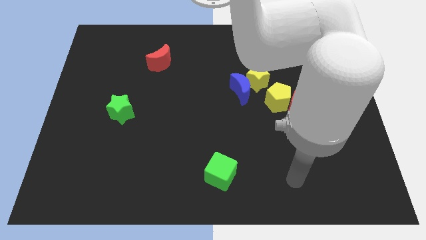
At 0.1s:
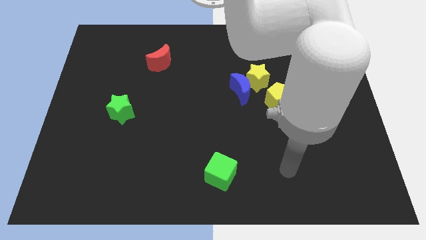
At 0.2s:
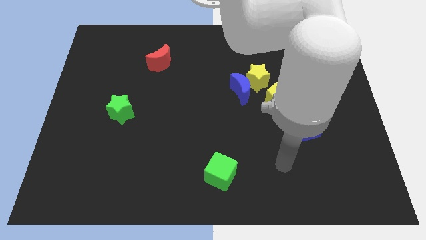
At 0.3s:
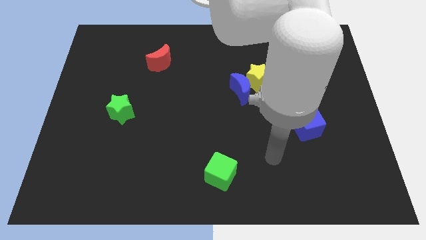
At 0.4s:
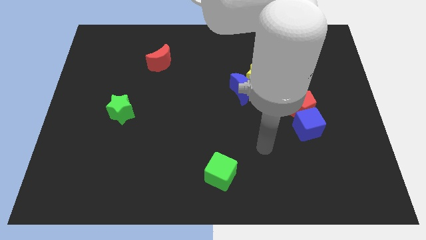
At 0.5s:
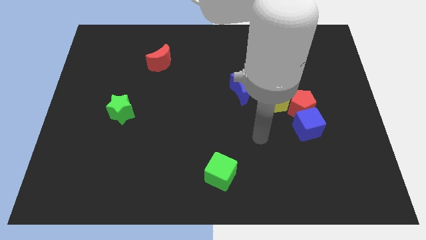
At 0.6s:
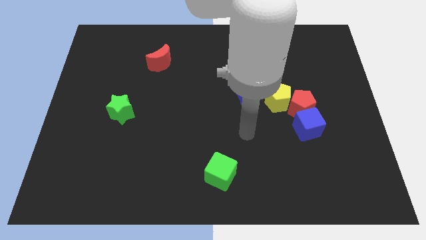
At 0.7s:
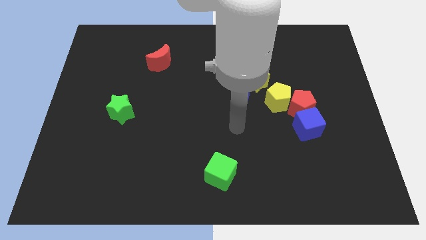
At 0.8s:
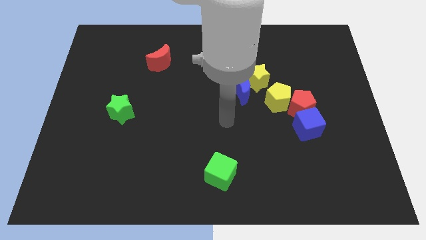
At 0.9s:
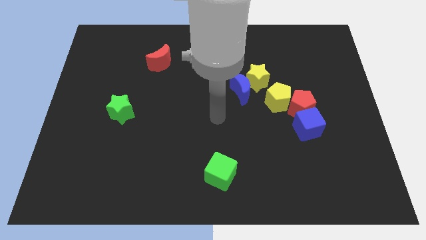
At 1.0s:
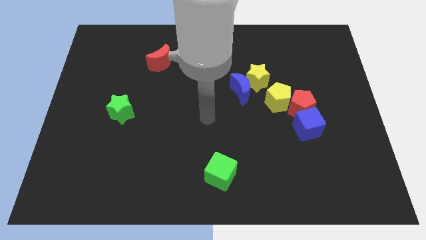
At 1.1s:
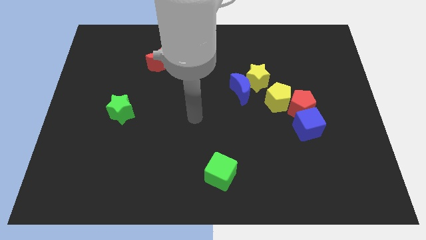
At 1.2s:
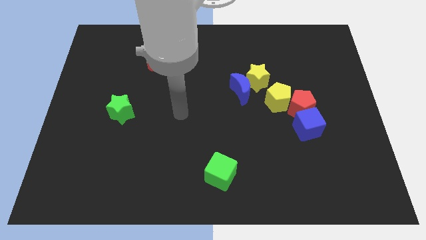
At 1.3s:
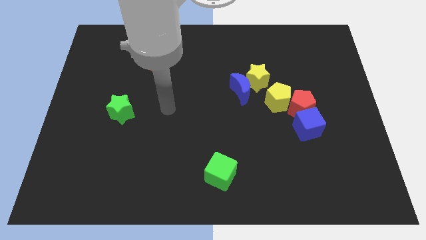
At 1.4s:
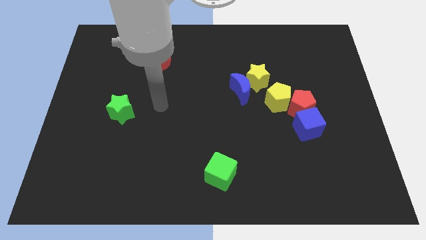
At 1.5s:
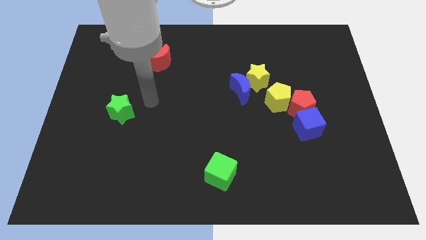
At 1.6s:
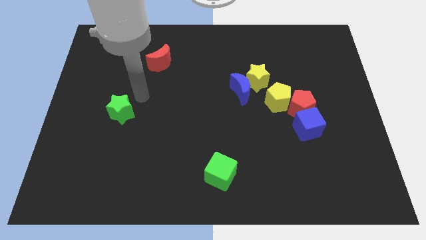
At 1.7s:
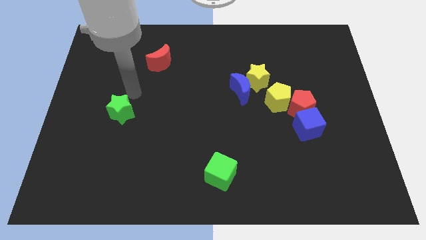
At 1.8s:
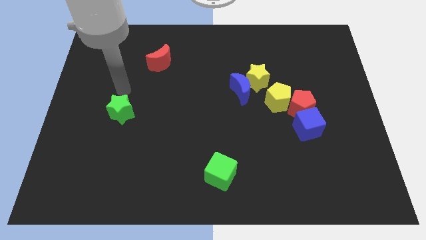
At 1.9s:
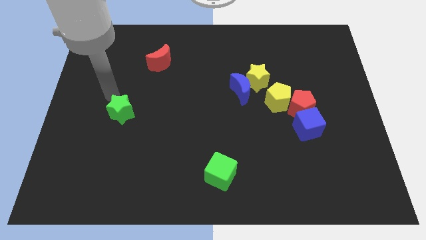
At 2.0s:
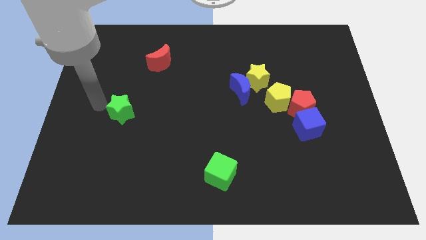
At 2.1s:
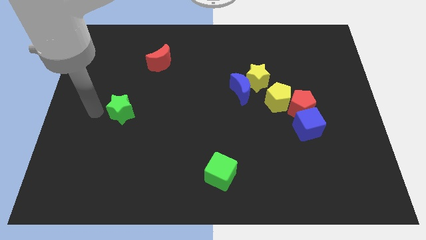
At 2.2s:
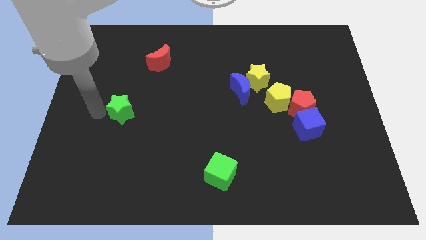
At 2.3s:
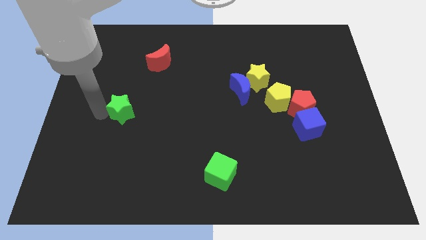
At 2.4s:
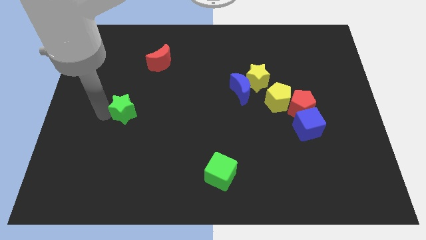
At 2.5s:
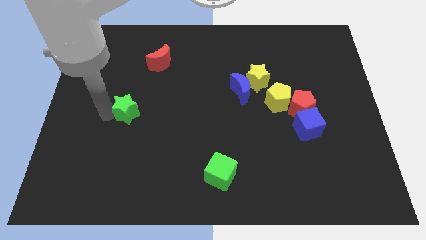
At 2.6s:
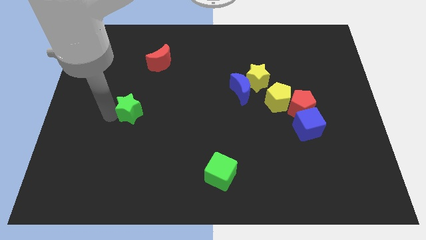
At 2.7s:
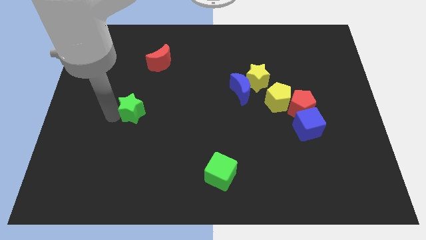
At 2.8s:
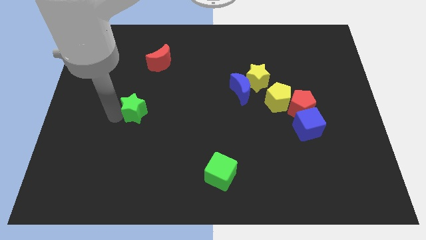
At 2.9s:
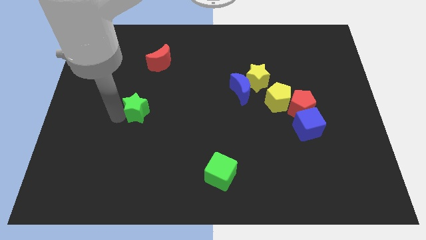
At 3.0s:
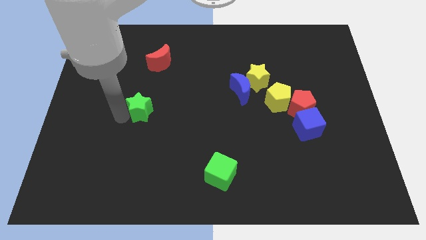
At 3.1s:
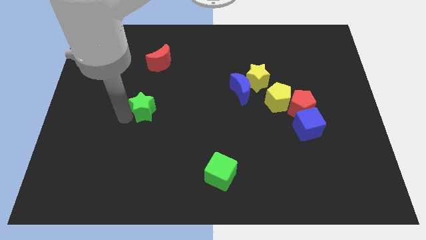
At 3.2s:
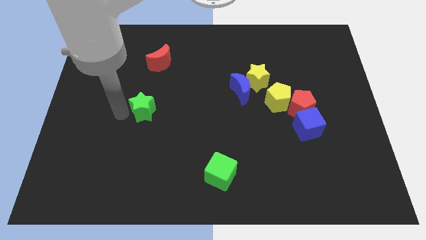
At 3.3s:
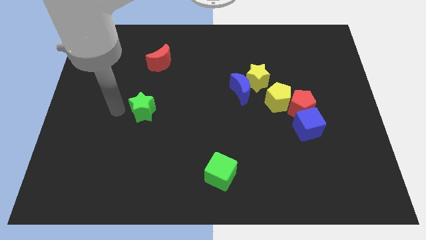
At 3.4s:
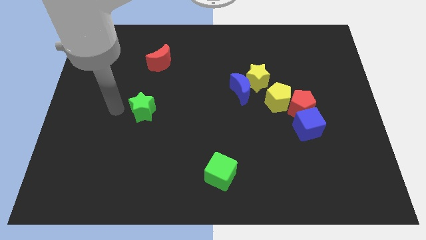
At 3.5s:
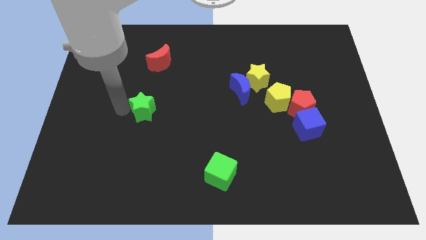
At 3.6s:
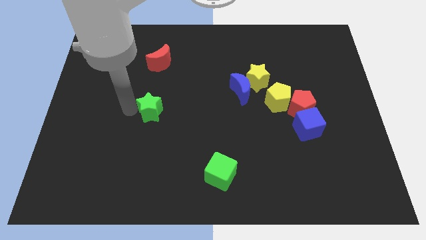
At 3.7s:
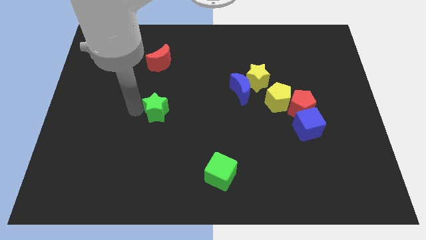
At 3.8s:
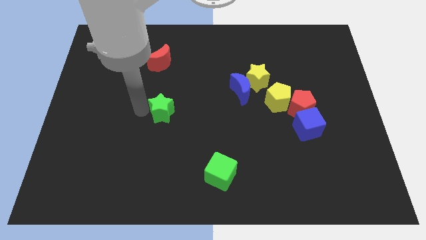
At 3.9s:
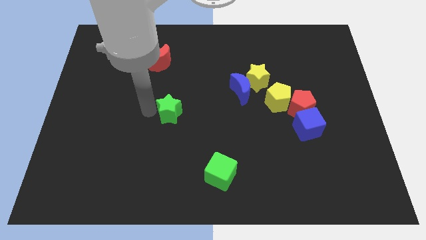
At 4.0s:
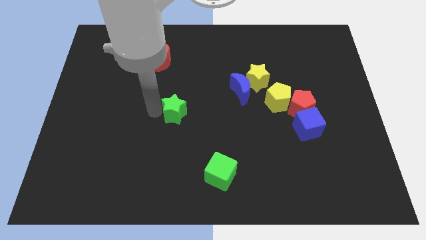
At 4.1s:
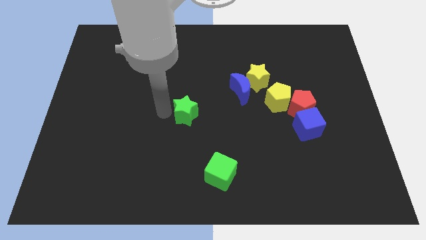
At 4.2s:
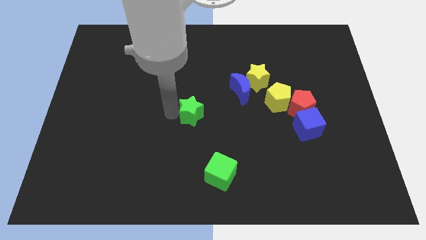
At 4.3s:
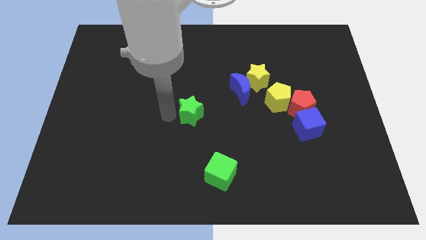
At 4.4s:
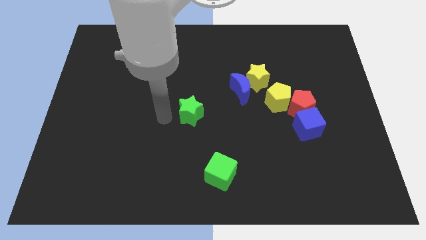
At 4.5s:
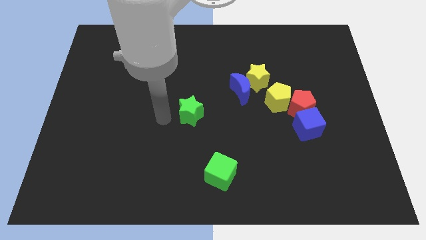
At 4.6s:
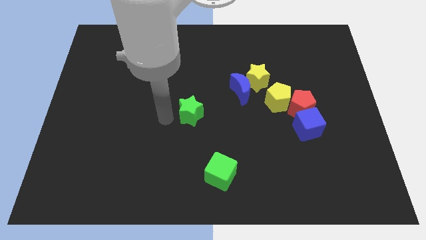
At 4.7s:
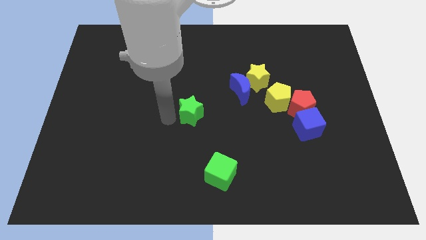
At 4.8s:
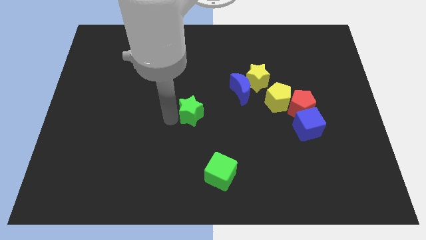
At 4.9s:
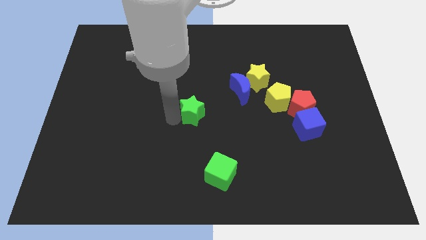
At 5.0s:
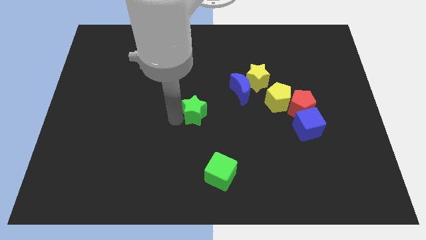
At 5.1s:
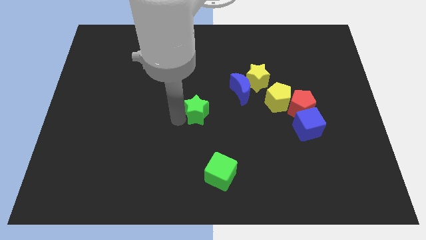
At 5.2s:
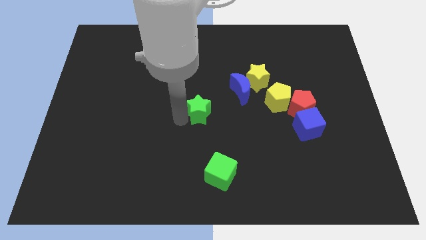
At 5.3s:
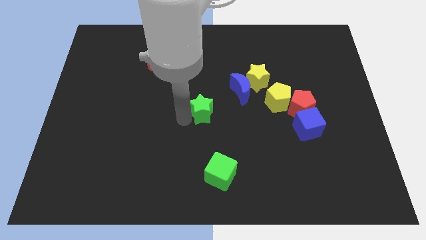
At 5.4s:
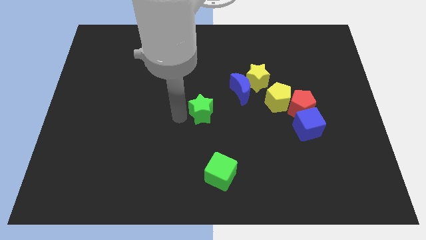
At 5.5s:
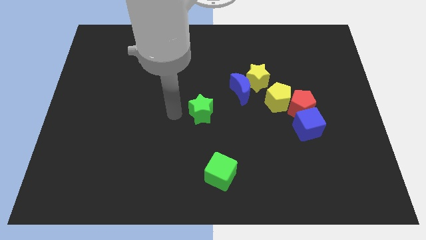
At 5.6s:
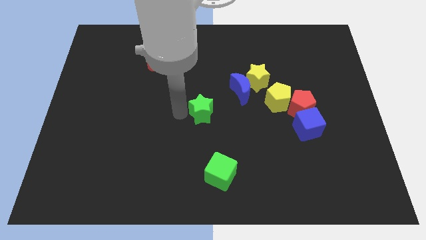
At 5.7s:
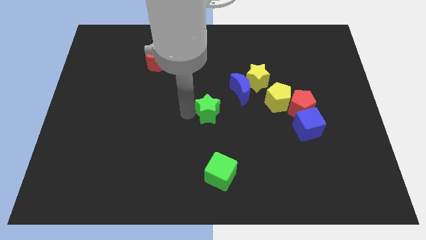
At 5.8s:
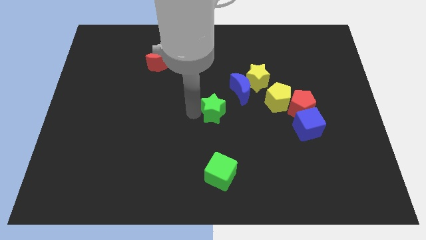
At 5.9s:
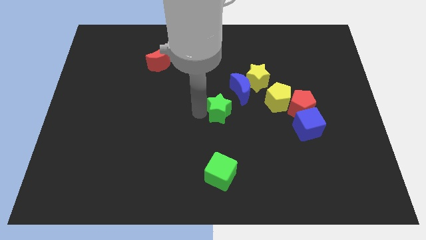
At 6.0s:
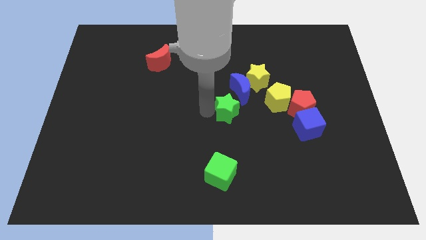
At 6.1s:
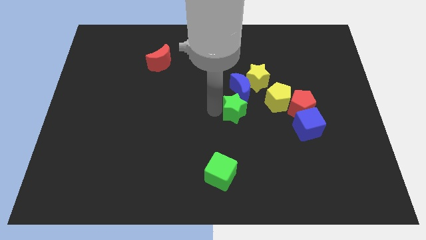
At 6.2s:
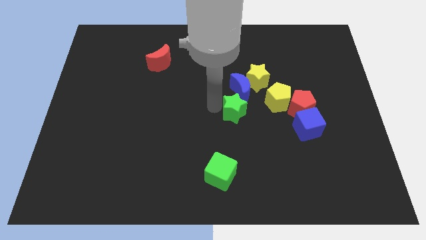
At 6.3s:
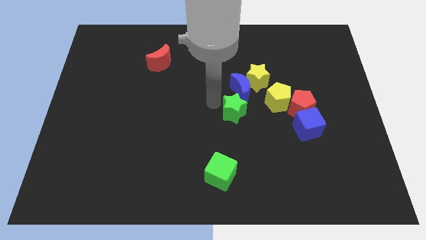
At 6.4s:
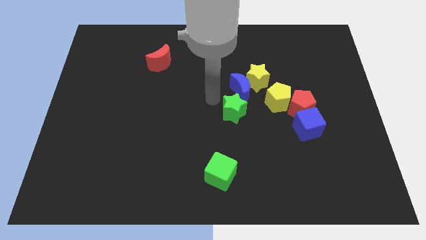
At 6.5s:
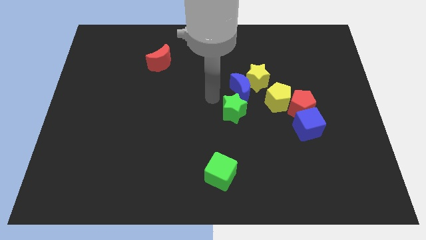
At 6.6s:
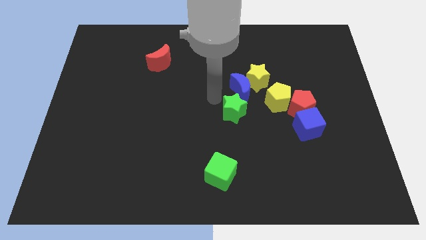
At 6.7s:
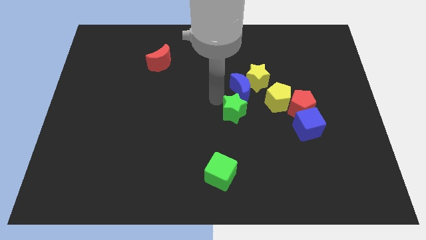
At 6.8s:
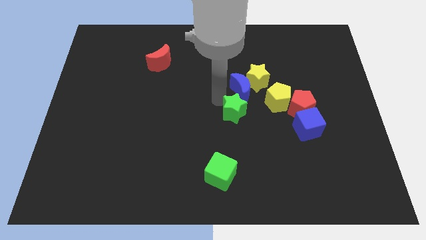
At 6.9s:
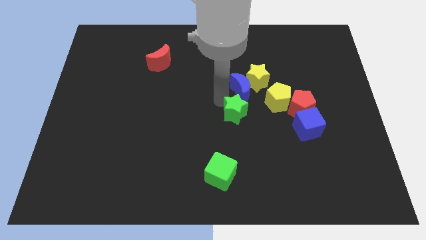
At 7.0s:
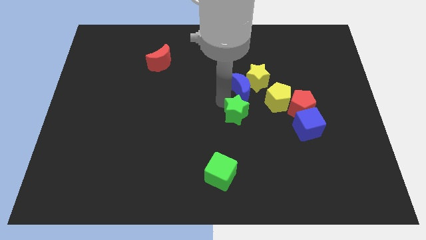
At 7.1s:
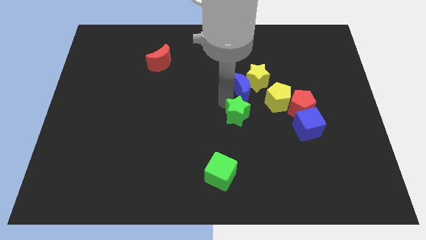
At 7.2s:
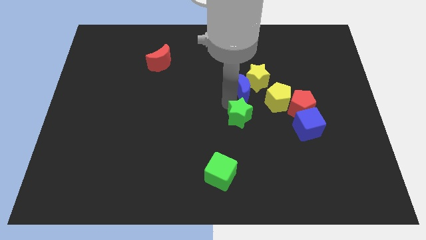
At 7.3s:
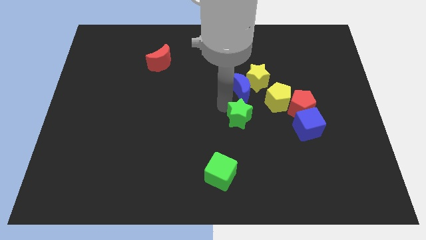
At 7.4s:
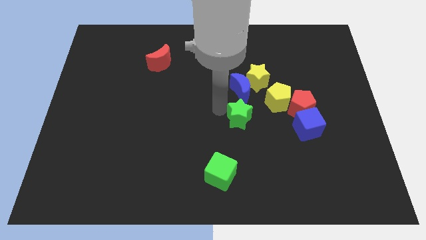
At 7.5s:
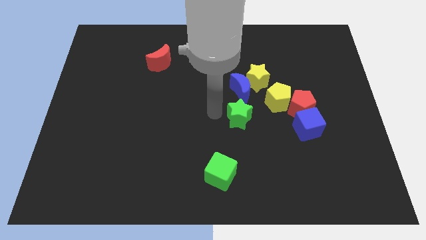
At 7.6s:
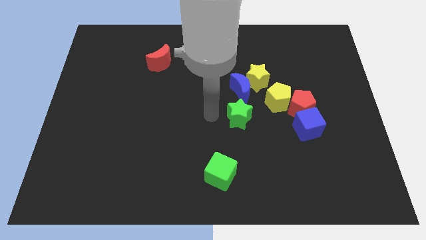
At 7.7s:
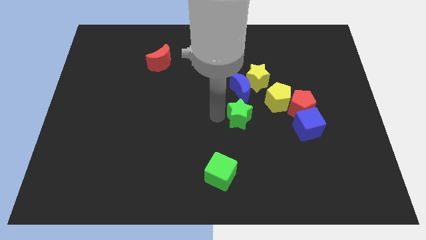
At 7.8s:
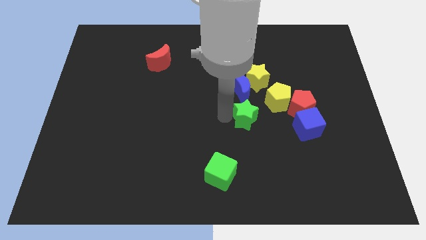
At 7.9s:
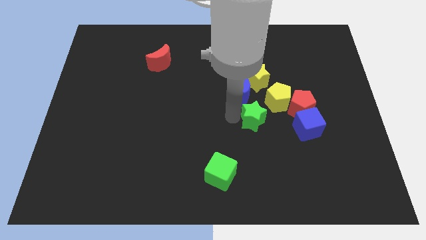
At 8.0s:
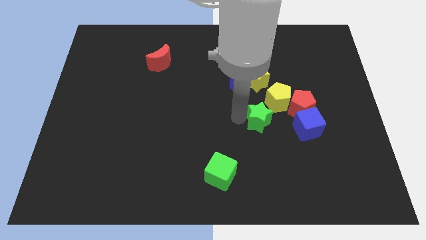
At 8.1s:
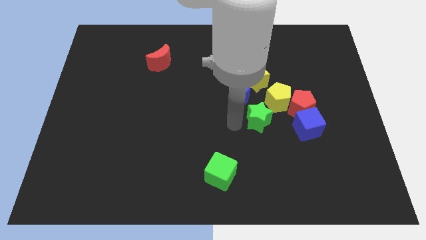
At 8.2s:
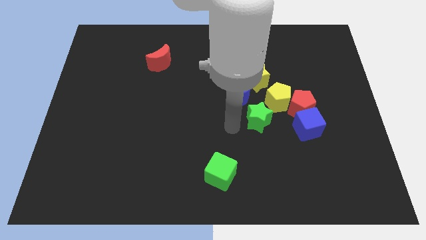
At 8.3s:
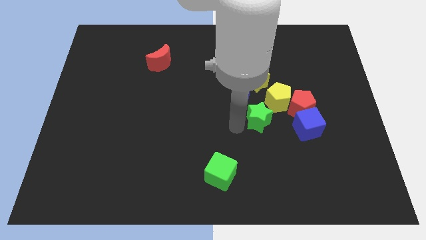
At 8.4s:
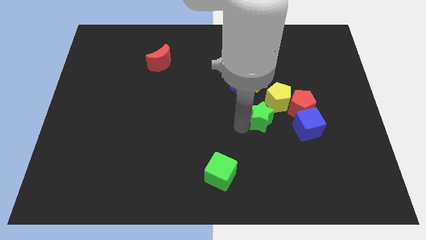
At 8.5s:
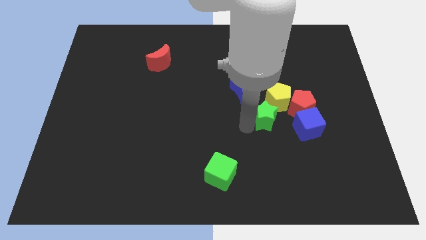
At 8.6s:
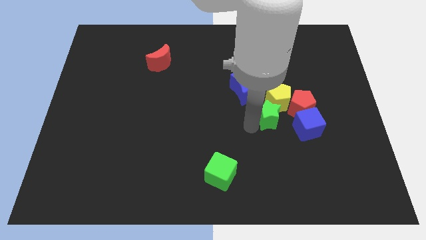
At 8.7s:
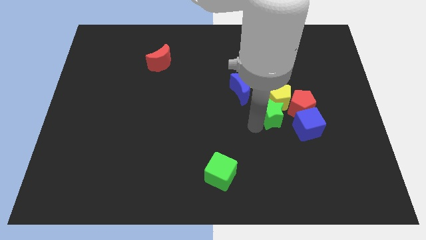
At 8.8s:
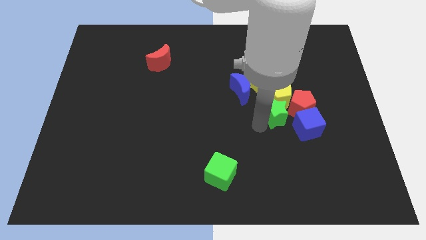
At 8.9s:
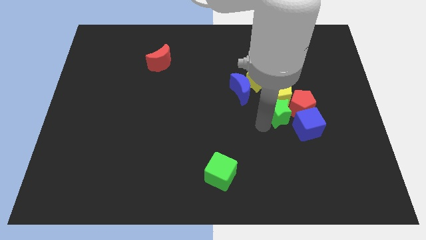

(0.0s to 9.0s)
move the green star close to the red pentagon
